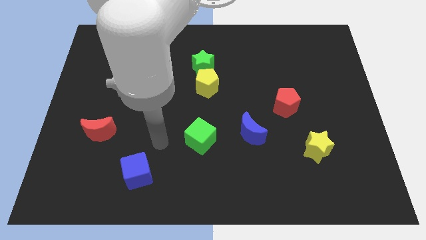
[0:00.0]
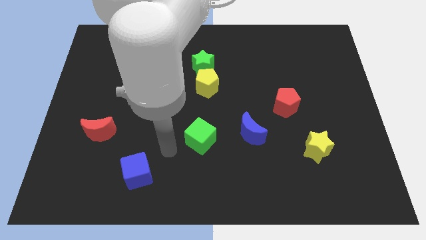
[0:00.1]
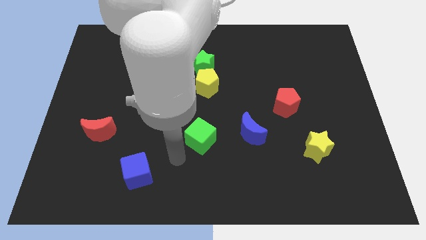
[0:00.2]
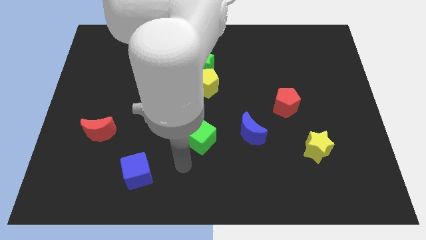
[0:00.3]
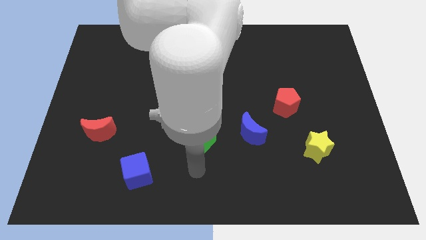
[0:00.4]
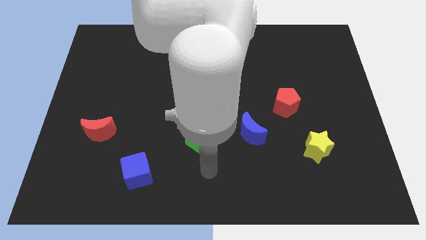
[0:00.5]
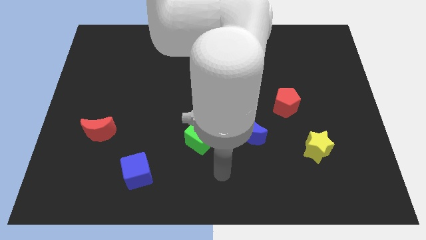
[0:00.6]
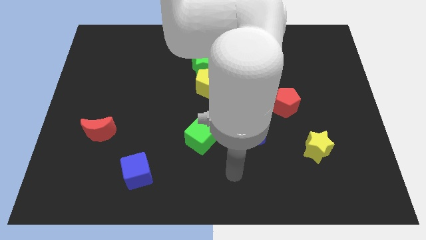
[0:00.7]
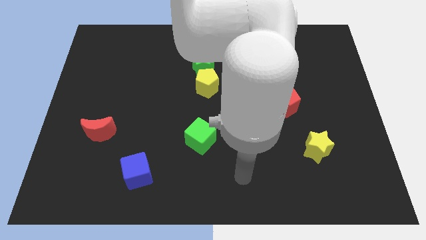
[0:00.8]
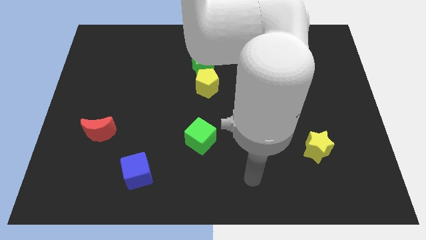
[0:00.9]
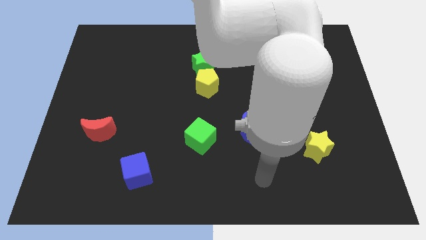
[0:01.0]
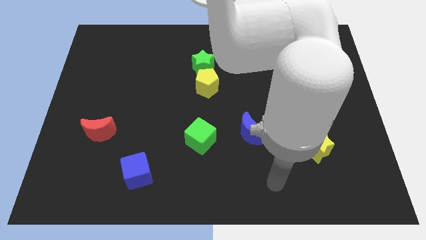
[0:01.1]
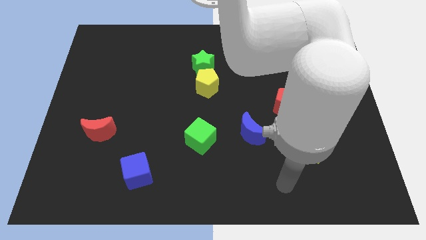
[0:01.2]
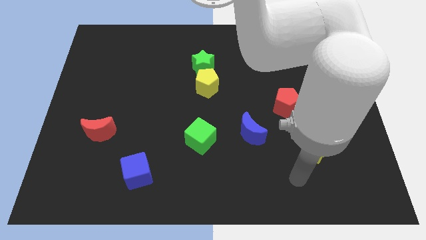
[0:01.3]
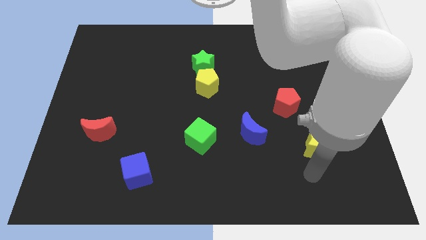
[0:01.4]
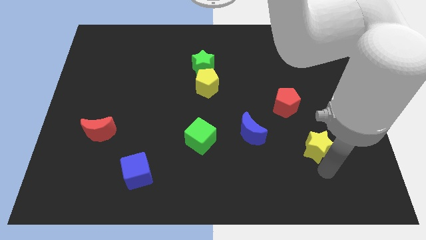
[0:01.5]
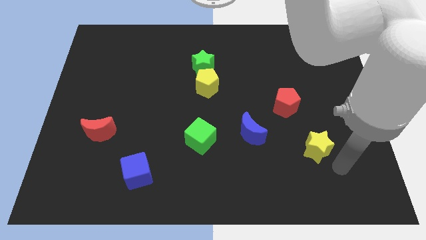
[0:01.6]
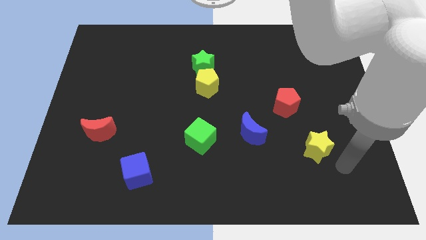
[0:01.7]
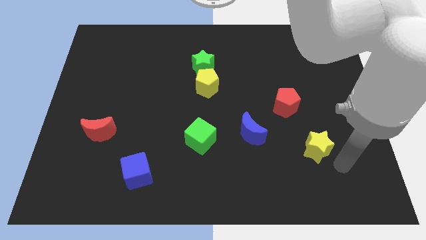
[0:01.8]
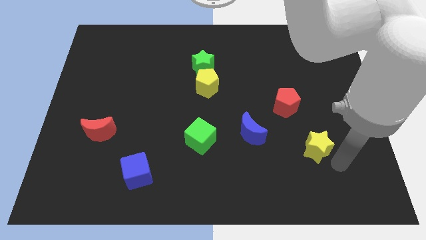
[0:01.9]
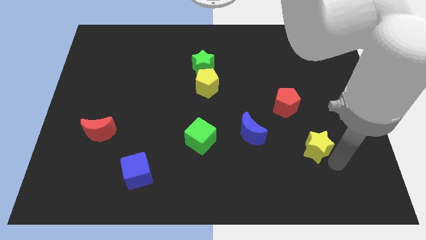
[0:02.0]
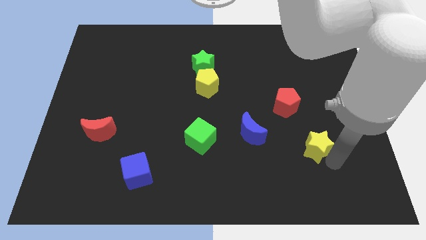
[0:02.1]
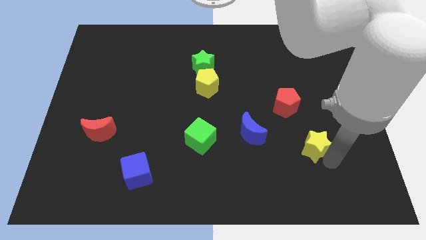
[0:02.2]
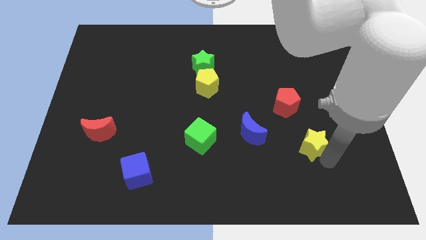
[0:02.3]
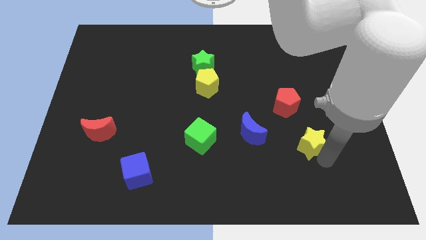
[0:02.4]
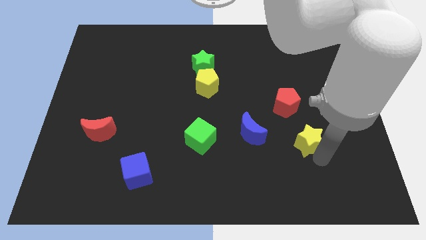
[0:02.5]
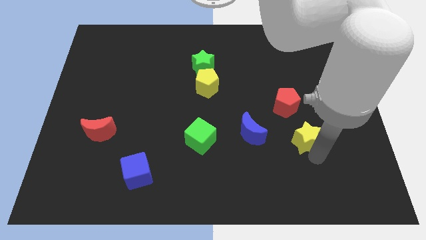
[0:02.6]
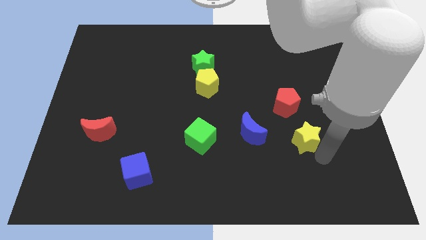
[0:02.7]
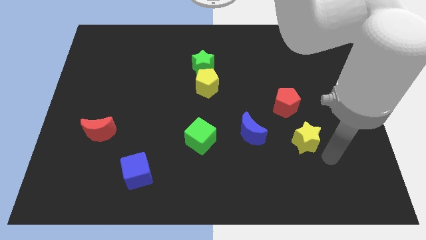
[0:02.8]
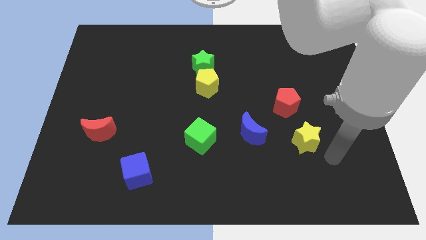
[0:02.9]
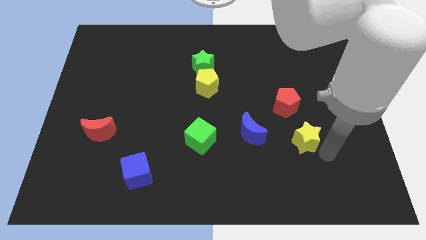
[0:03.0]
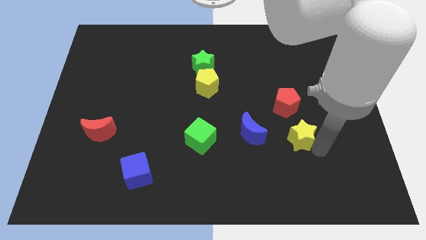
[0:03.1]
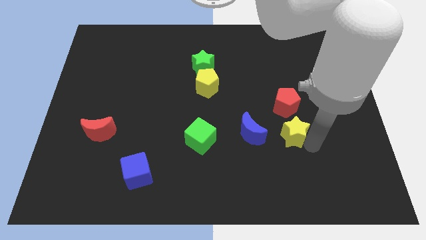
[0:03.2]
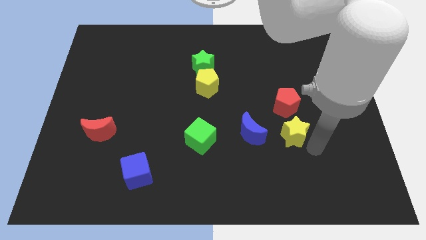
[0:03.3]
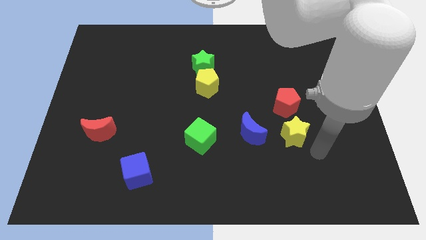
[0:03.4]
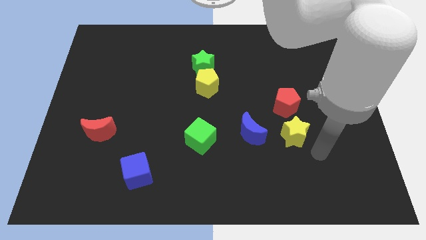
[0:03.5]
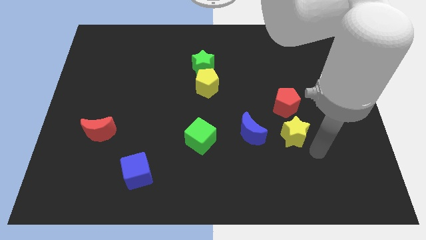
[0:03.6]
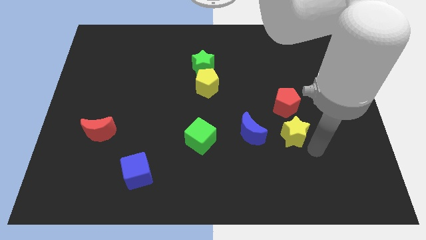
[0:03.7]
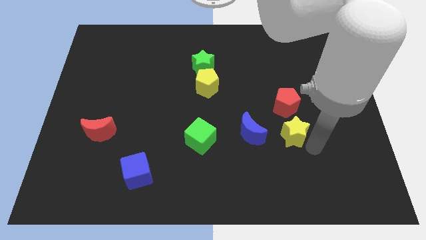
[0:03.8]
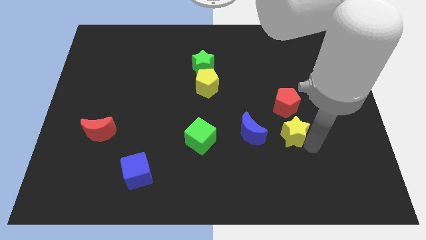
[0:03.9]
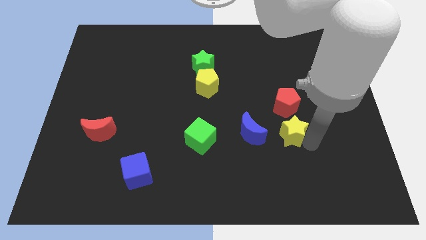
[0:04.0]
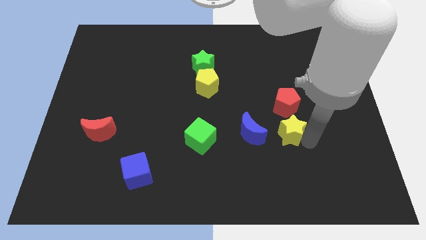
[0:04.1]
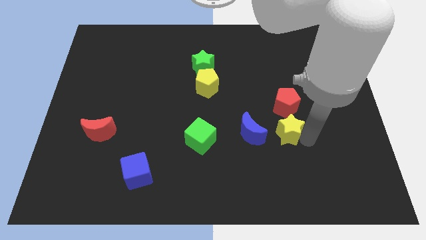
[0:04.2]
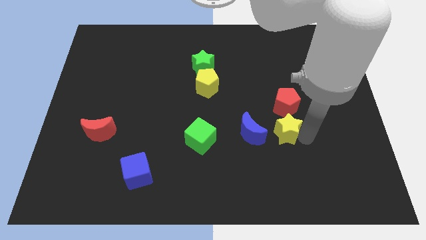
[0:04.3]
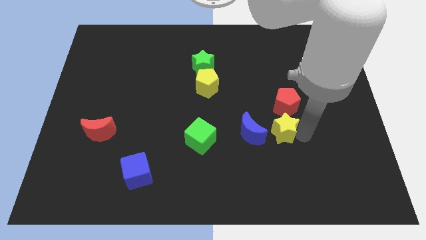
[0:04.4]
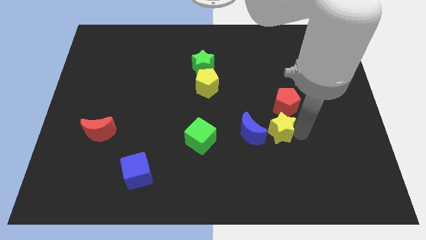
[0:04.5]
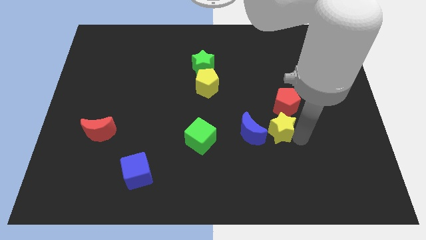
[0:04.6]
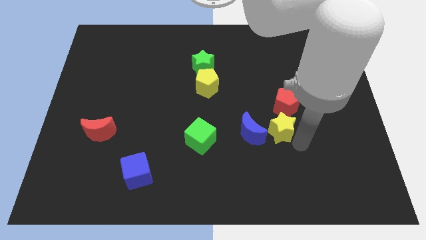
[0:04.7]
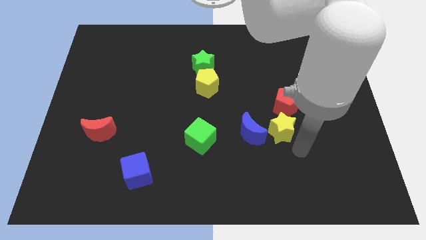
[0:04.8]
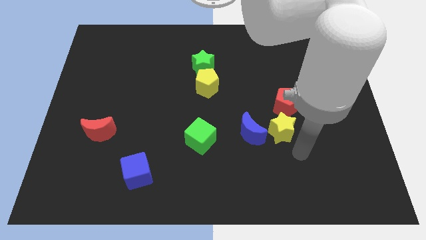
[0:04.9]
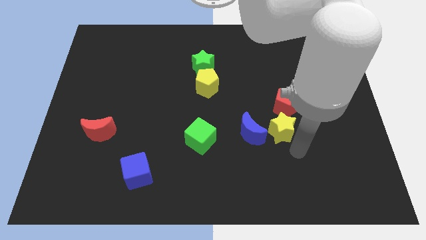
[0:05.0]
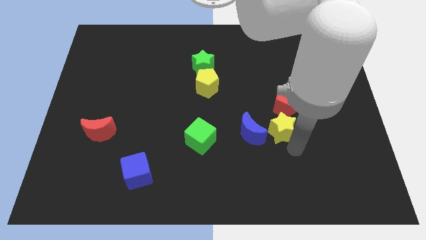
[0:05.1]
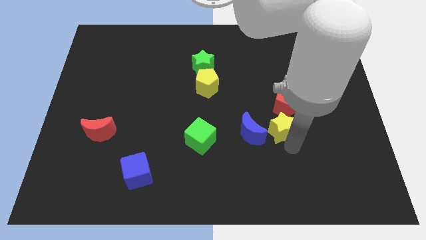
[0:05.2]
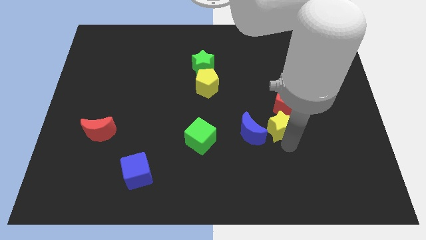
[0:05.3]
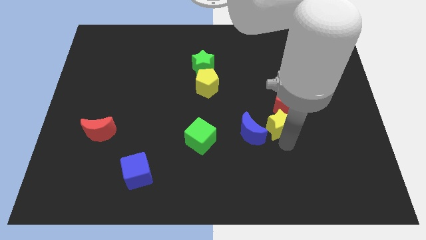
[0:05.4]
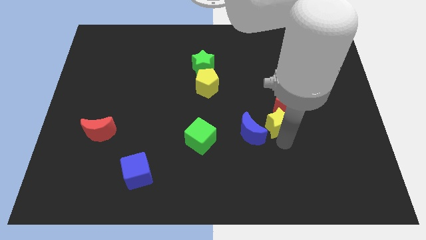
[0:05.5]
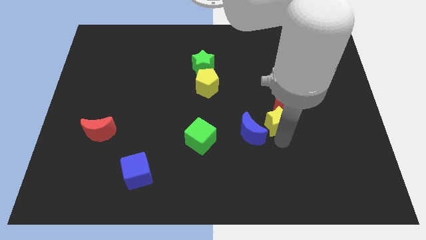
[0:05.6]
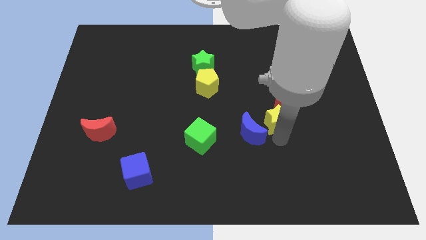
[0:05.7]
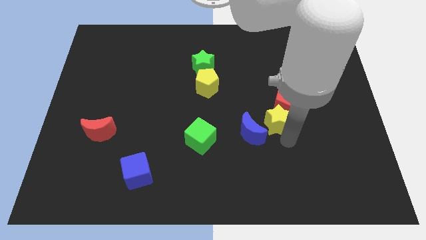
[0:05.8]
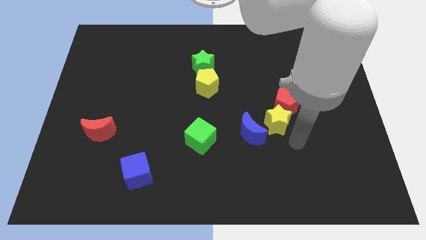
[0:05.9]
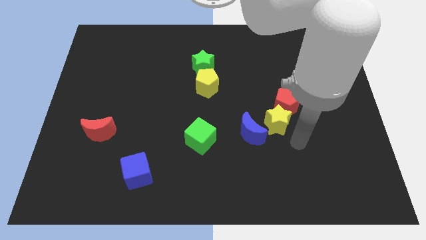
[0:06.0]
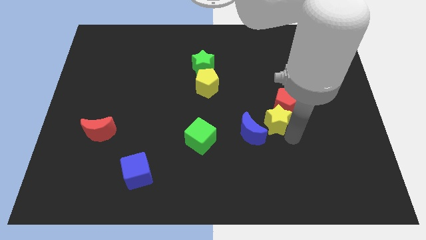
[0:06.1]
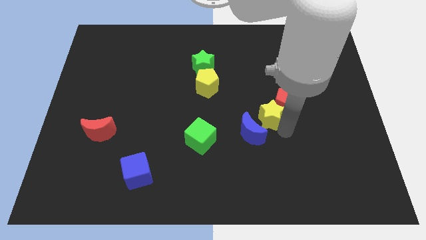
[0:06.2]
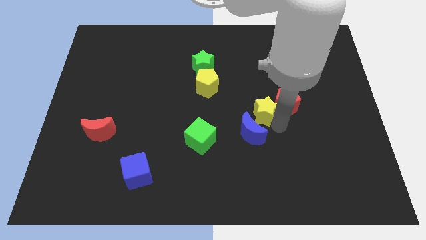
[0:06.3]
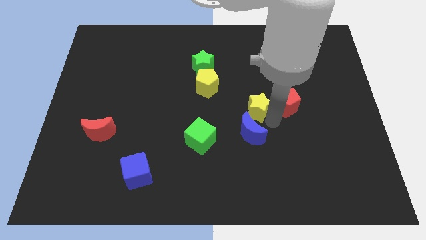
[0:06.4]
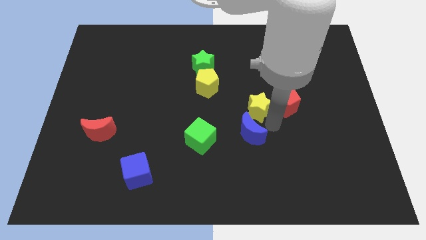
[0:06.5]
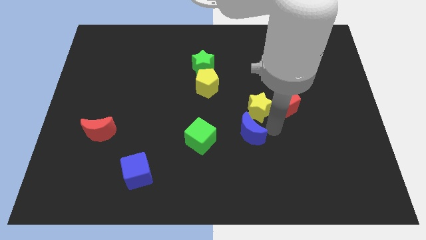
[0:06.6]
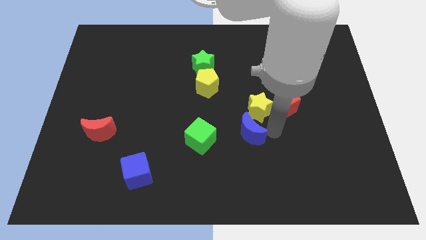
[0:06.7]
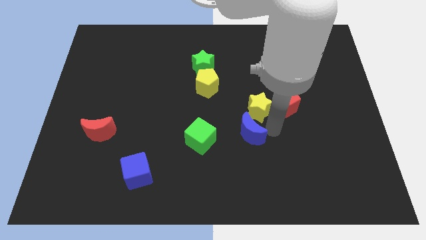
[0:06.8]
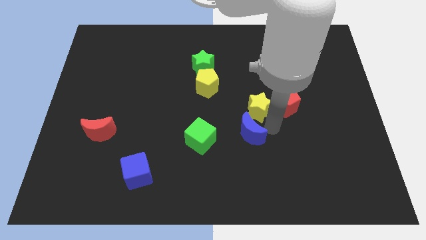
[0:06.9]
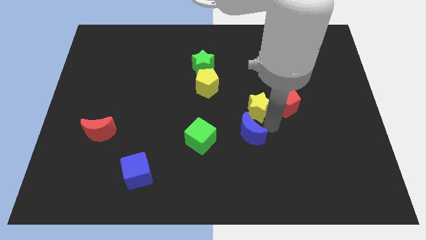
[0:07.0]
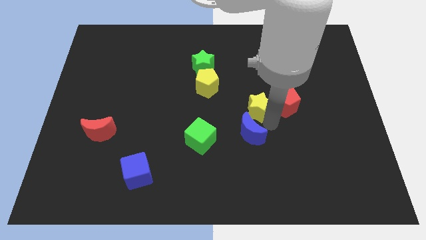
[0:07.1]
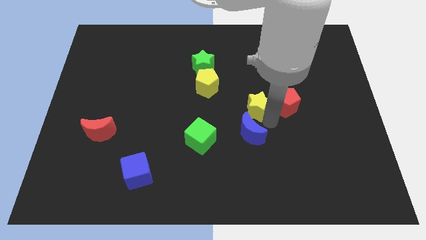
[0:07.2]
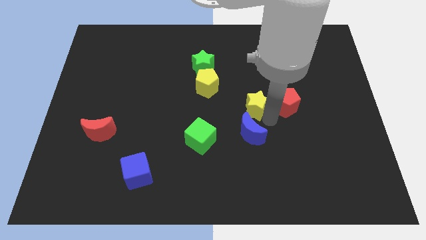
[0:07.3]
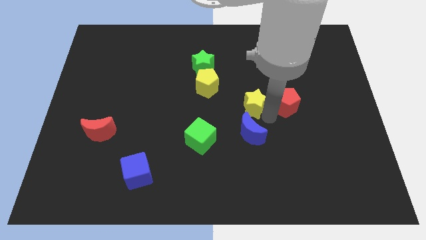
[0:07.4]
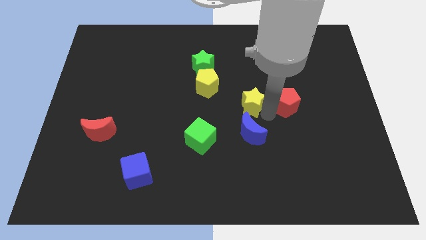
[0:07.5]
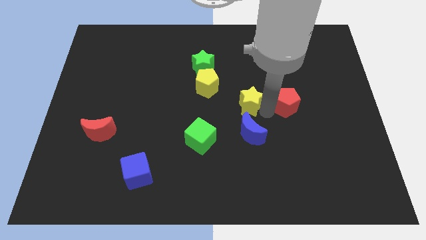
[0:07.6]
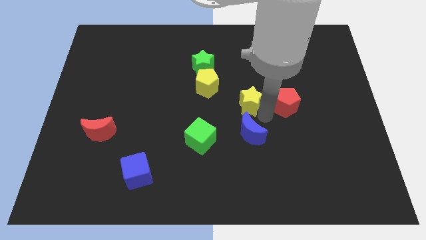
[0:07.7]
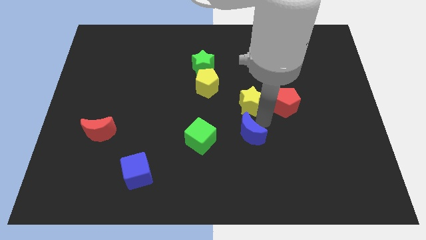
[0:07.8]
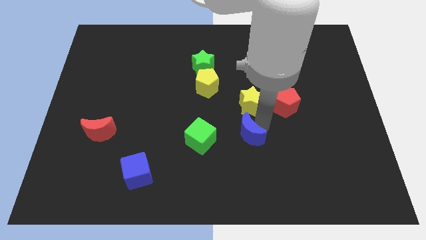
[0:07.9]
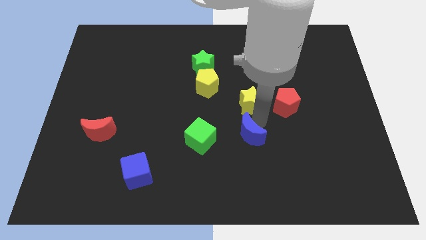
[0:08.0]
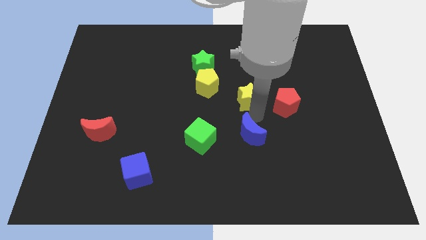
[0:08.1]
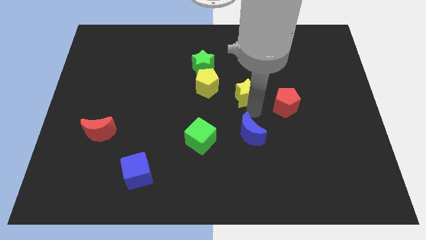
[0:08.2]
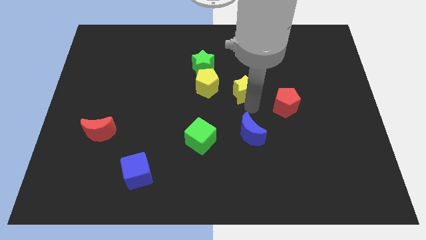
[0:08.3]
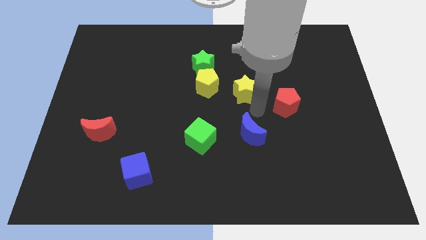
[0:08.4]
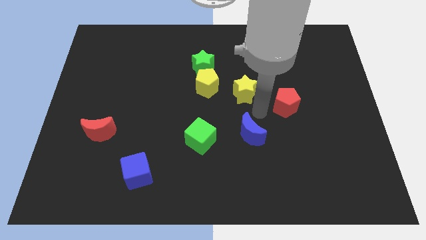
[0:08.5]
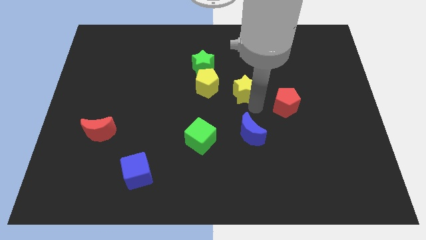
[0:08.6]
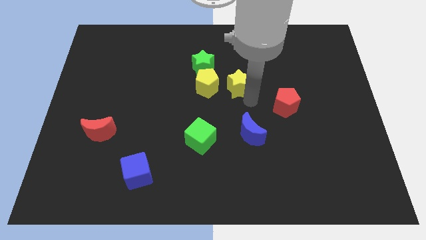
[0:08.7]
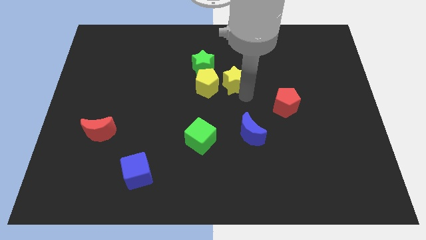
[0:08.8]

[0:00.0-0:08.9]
move the yellow star diagonally up and to the right of the yellow pentagon
